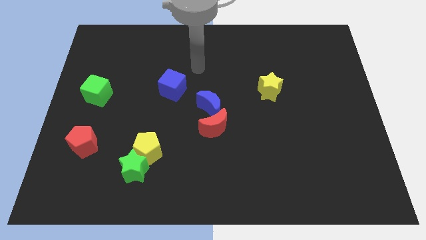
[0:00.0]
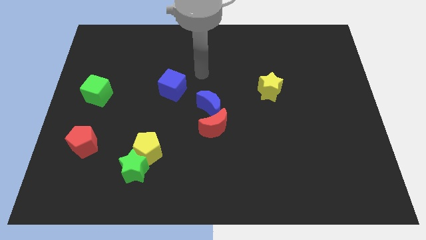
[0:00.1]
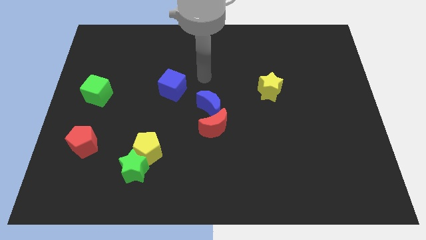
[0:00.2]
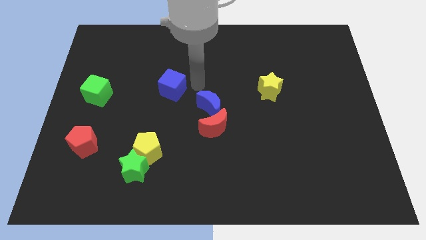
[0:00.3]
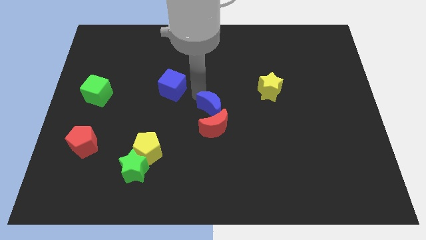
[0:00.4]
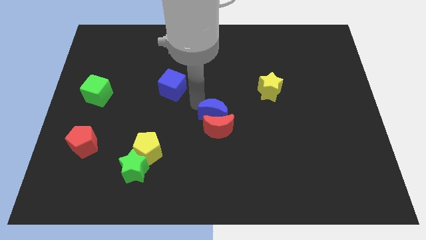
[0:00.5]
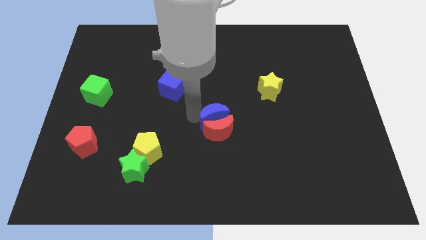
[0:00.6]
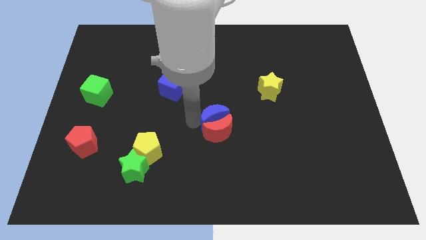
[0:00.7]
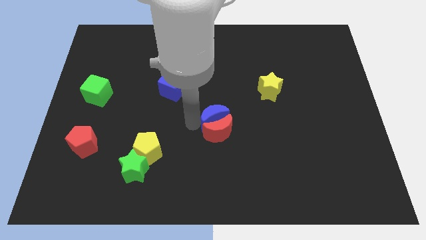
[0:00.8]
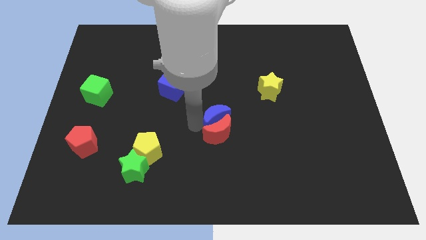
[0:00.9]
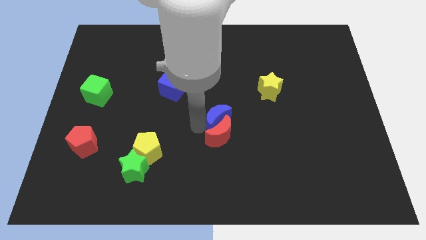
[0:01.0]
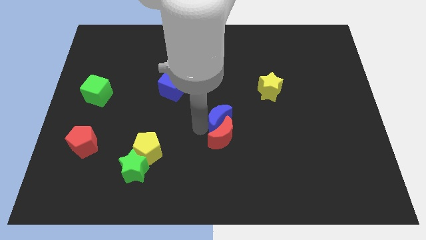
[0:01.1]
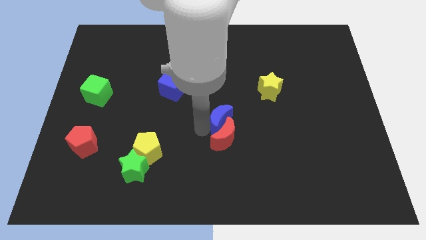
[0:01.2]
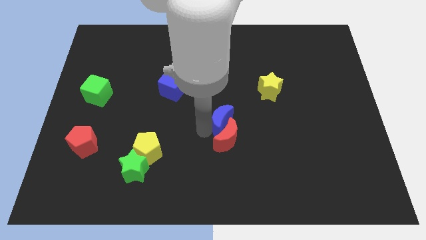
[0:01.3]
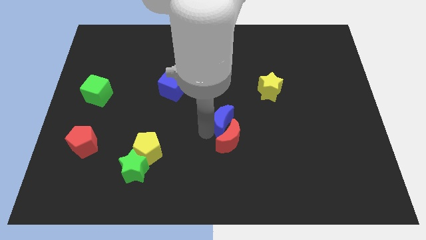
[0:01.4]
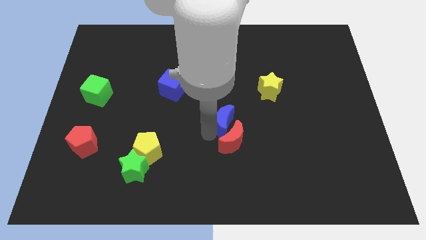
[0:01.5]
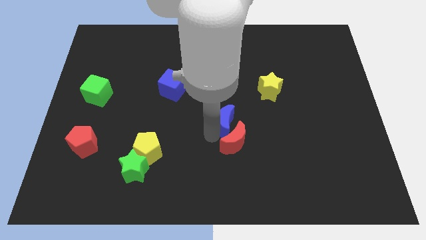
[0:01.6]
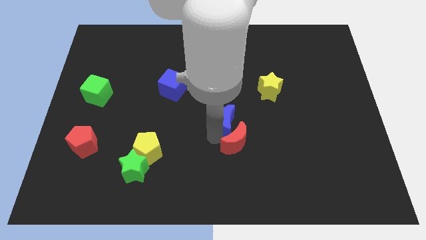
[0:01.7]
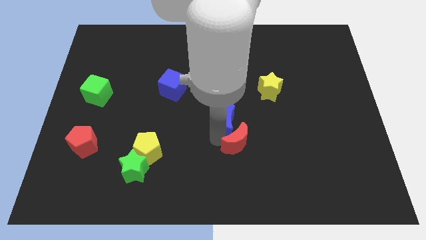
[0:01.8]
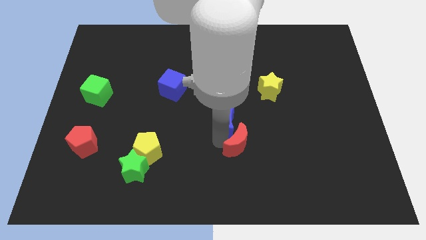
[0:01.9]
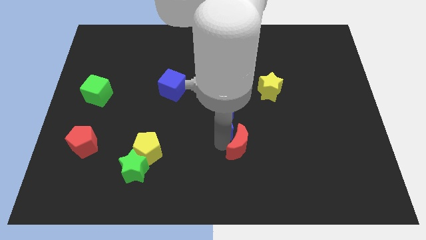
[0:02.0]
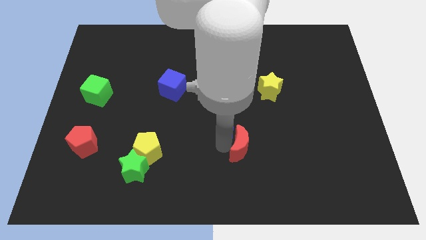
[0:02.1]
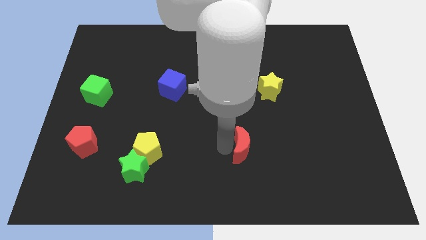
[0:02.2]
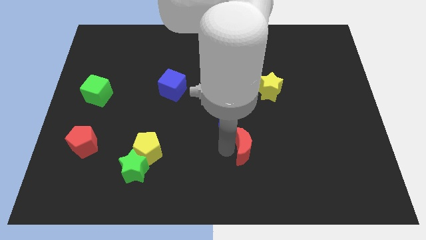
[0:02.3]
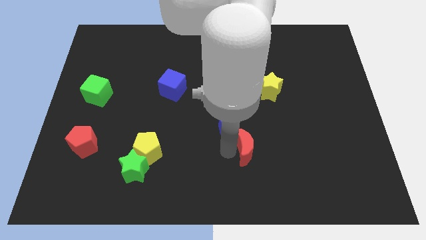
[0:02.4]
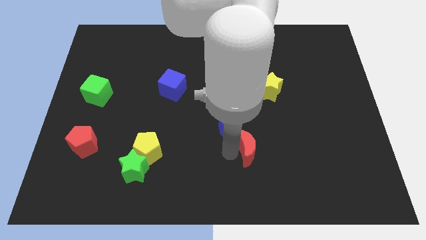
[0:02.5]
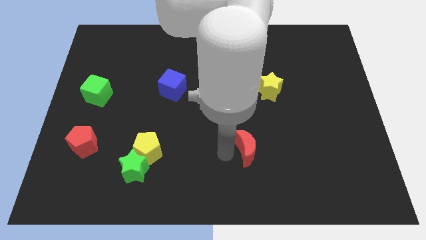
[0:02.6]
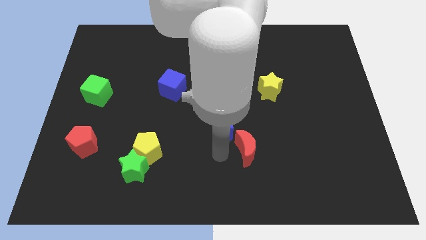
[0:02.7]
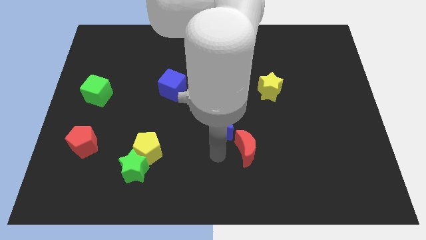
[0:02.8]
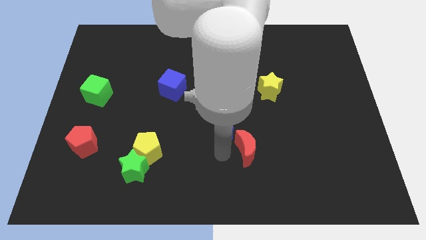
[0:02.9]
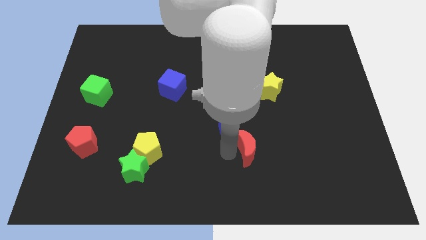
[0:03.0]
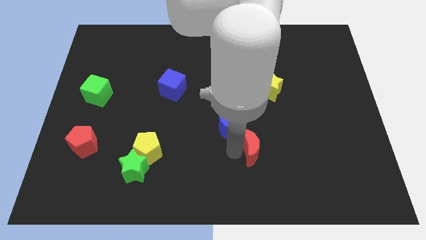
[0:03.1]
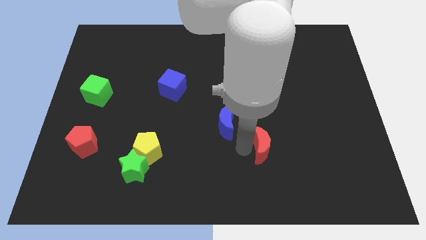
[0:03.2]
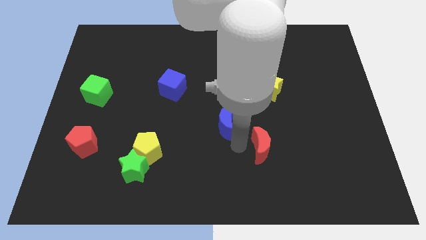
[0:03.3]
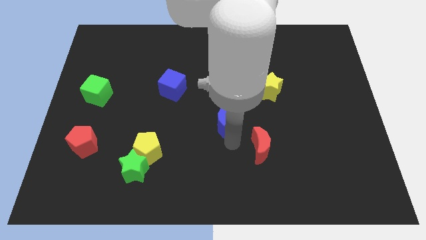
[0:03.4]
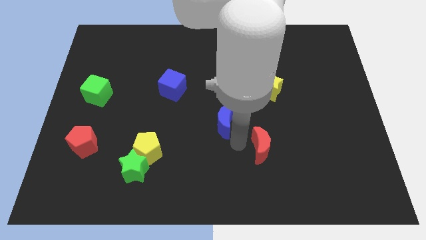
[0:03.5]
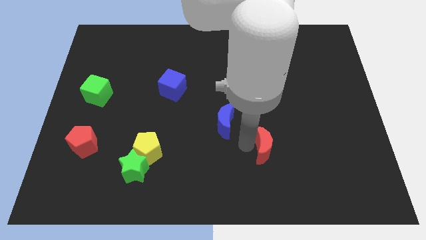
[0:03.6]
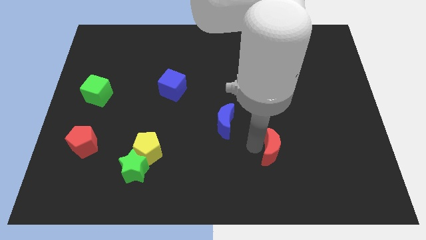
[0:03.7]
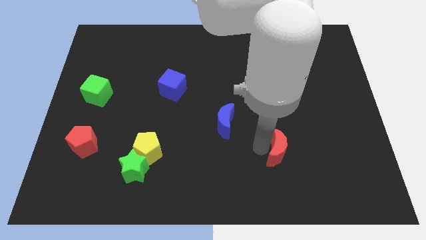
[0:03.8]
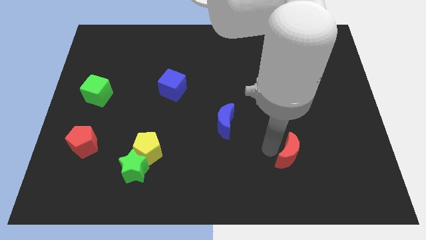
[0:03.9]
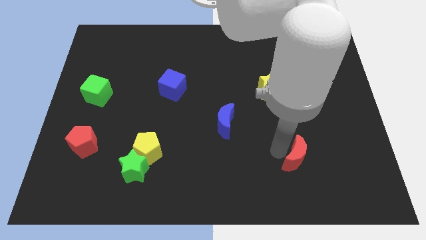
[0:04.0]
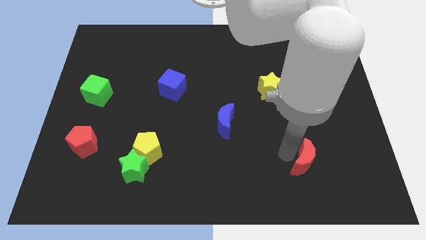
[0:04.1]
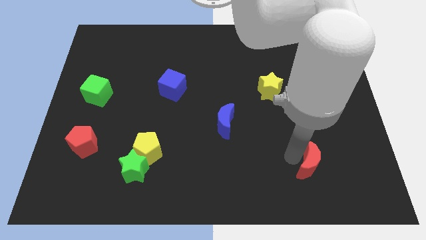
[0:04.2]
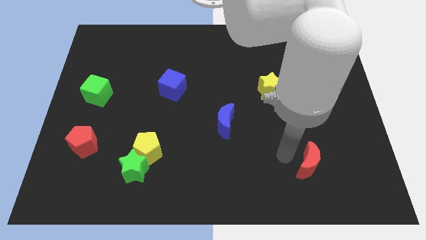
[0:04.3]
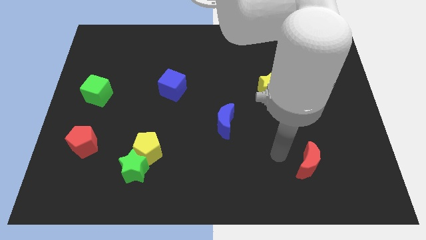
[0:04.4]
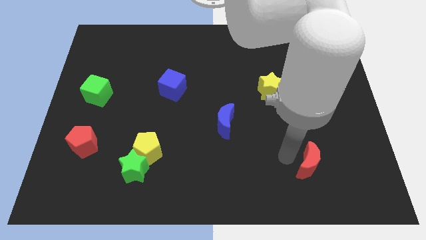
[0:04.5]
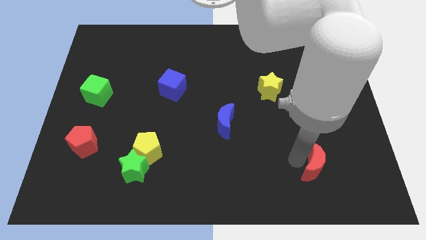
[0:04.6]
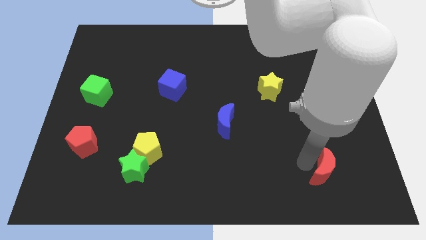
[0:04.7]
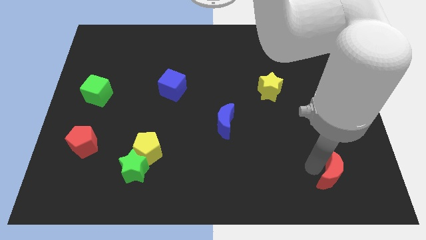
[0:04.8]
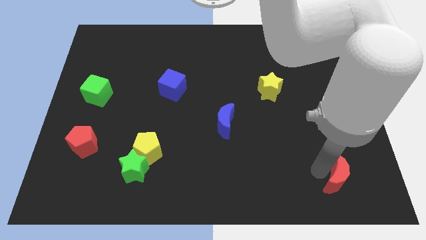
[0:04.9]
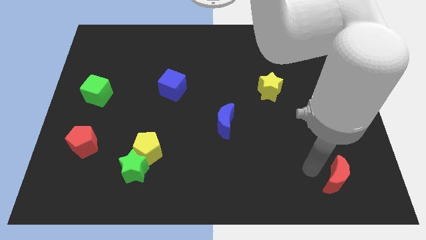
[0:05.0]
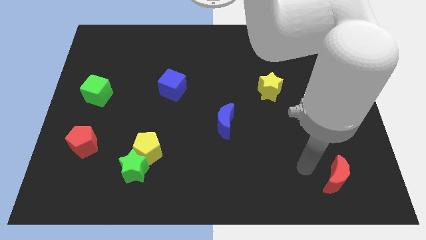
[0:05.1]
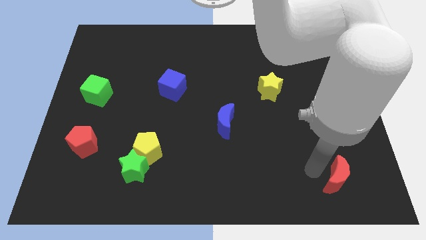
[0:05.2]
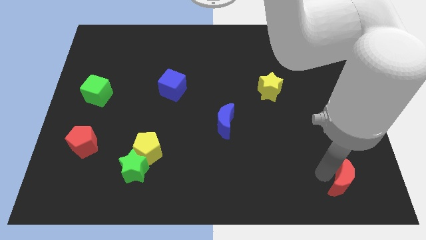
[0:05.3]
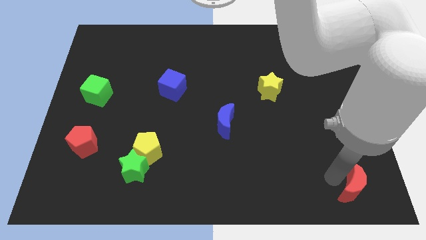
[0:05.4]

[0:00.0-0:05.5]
slide the red moon to the bottom right of the board

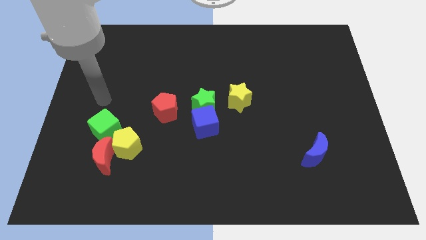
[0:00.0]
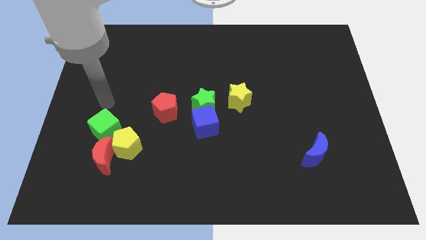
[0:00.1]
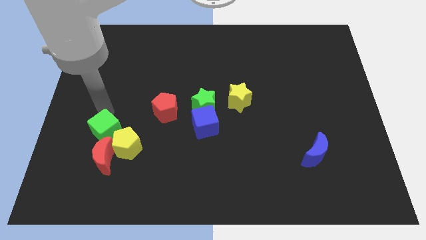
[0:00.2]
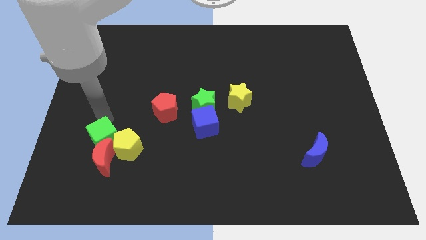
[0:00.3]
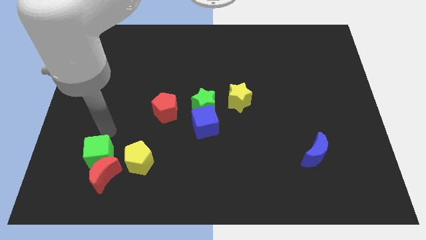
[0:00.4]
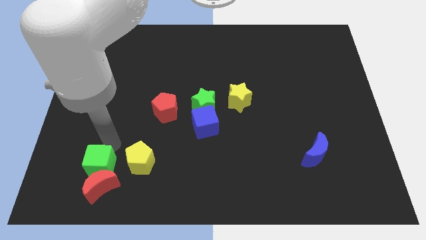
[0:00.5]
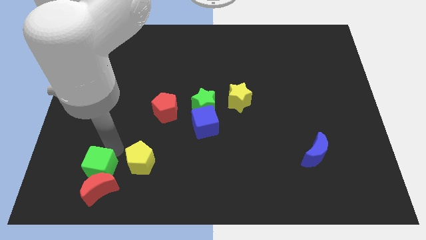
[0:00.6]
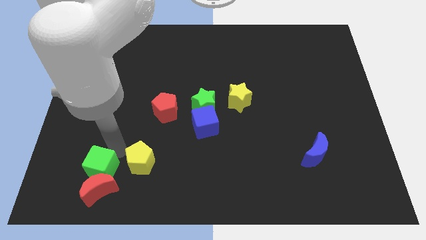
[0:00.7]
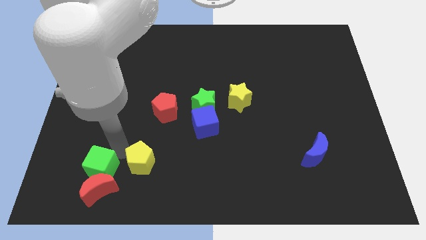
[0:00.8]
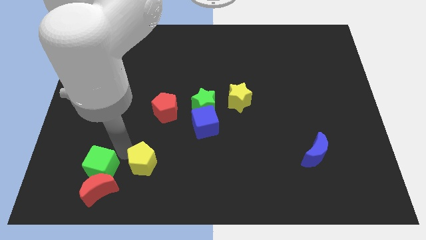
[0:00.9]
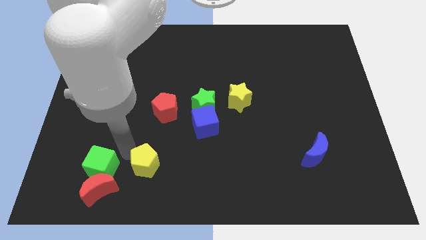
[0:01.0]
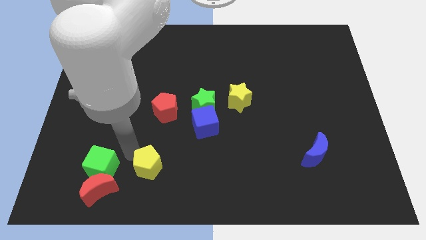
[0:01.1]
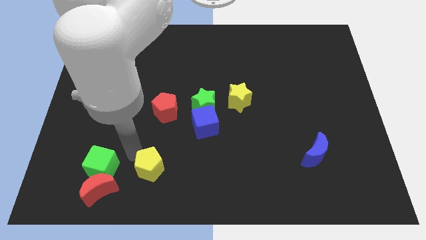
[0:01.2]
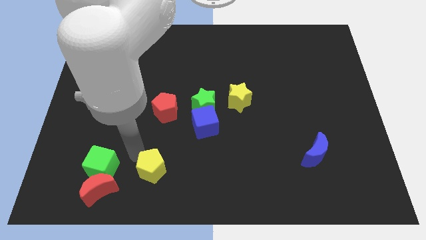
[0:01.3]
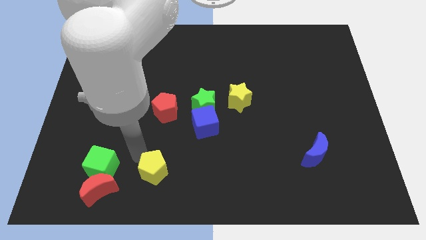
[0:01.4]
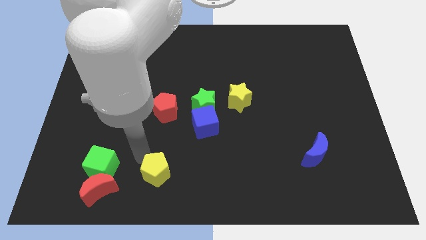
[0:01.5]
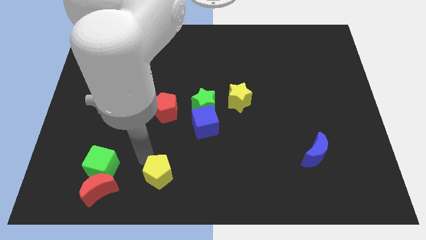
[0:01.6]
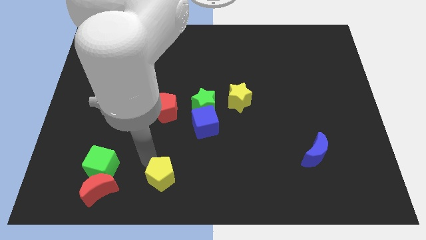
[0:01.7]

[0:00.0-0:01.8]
put the yellow pentagon to the bottom side
